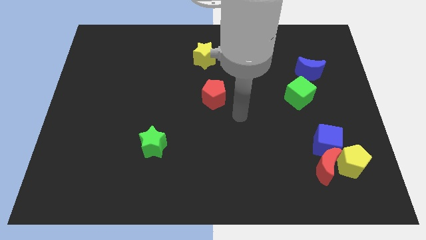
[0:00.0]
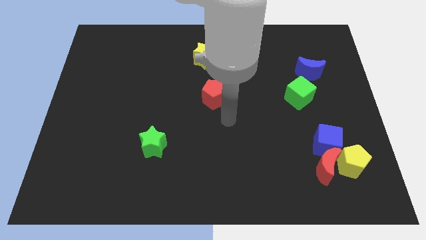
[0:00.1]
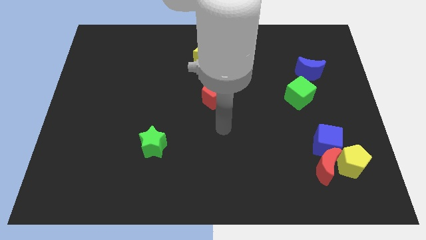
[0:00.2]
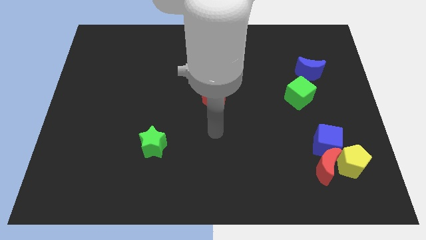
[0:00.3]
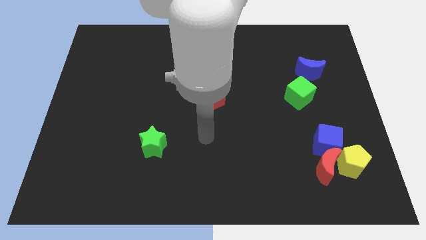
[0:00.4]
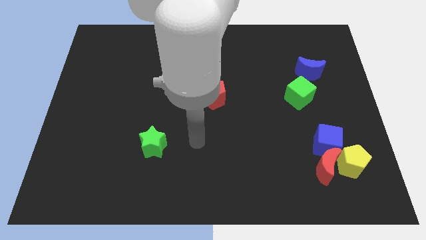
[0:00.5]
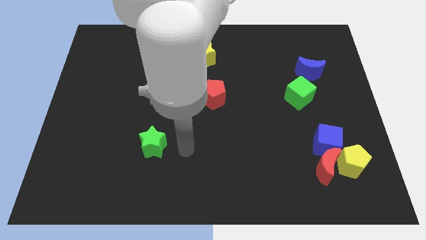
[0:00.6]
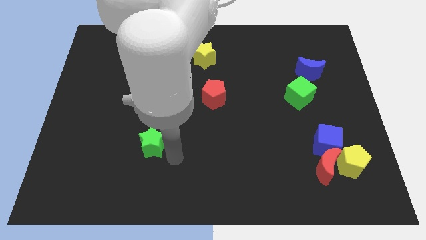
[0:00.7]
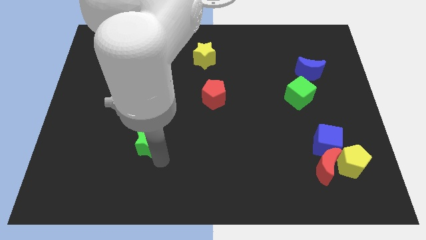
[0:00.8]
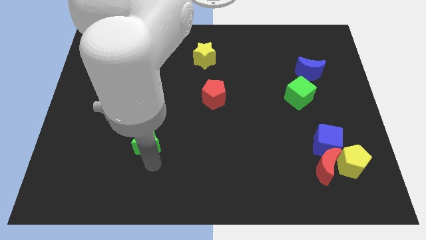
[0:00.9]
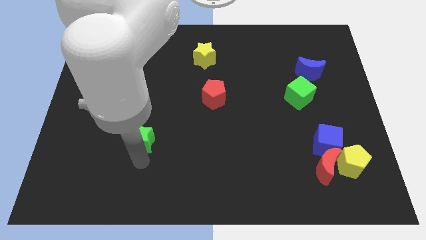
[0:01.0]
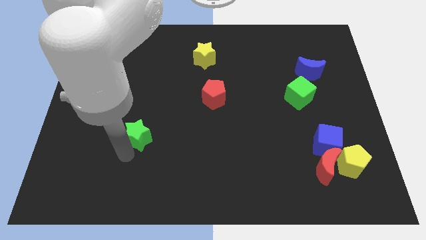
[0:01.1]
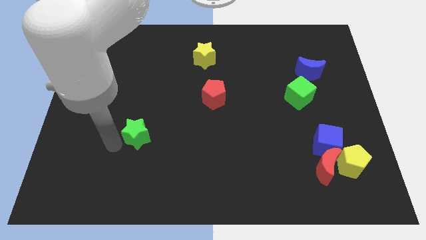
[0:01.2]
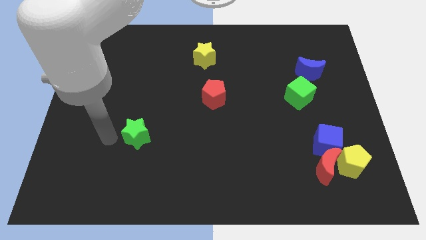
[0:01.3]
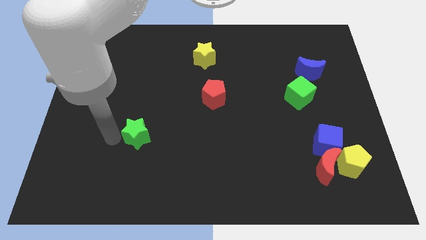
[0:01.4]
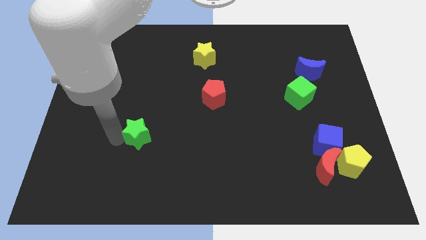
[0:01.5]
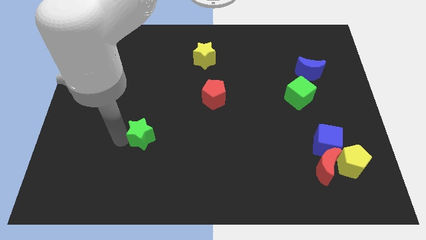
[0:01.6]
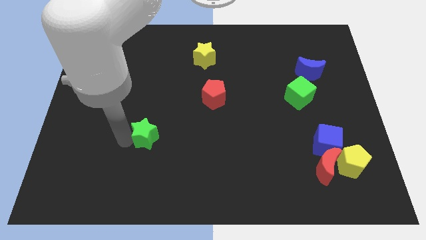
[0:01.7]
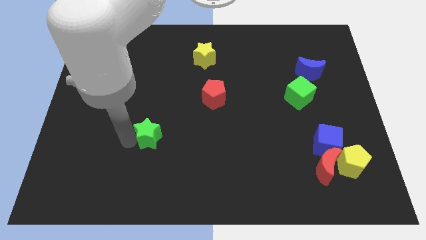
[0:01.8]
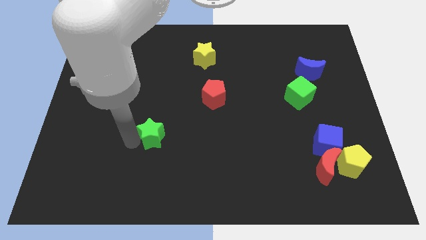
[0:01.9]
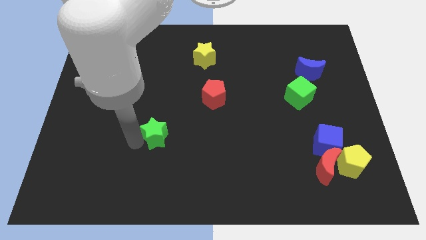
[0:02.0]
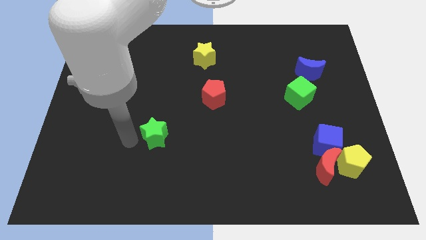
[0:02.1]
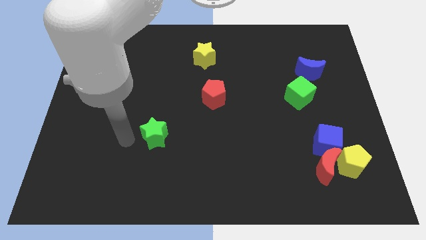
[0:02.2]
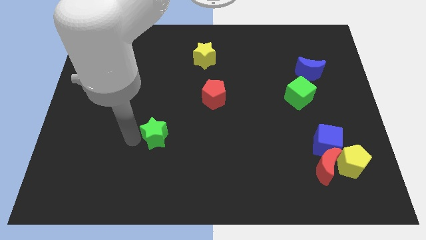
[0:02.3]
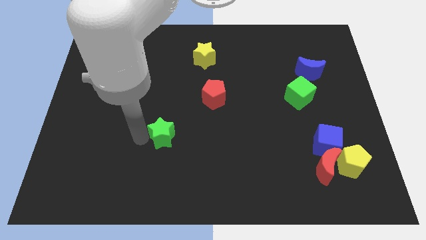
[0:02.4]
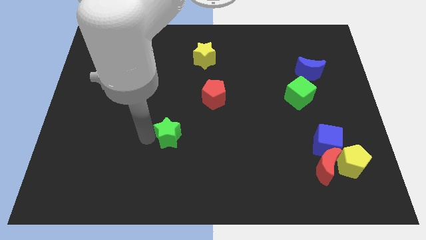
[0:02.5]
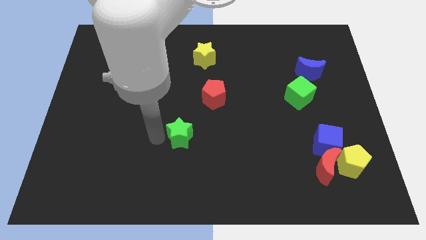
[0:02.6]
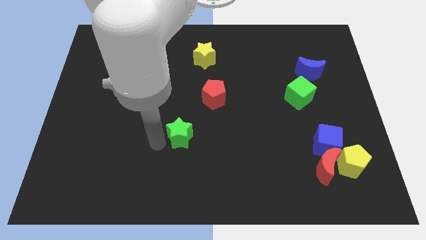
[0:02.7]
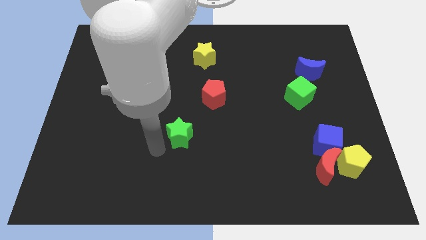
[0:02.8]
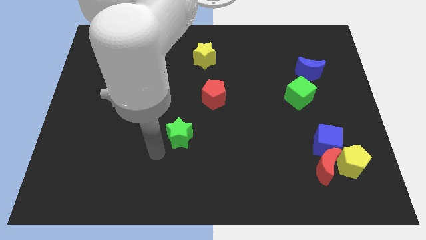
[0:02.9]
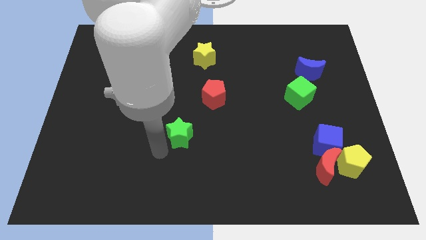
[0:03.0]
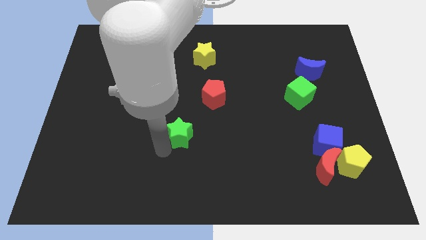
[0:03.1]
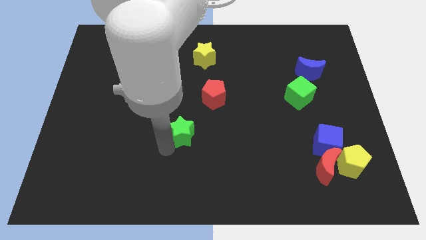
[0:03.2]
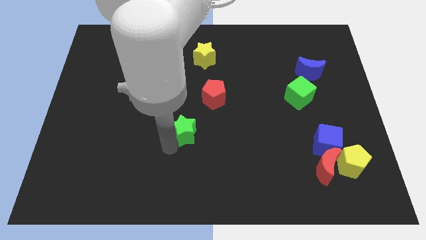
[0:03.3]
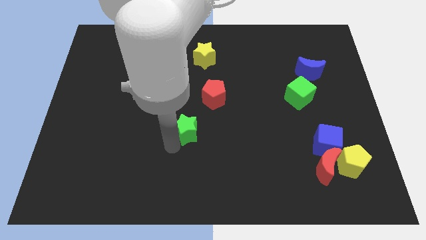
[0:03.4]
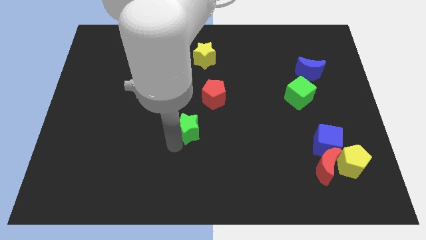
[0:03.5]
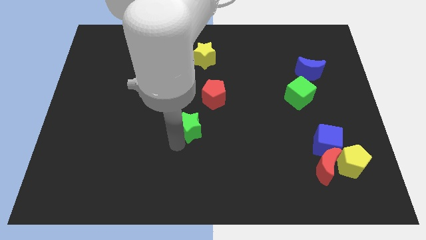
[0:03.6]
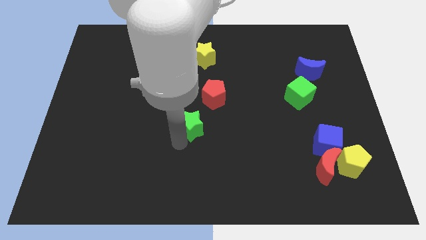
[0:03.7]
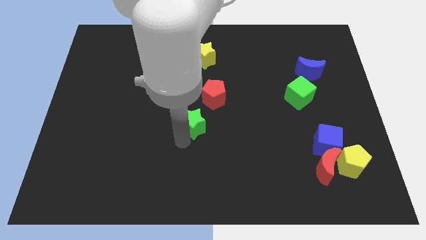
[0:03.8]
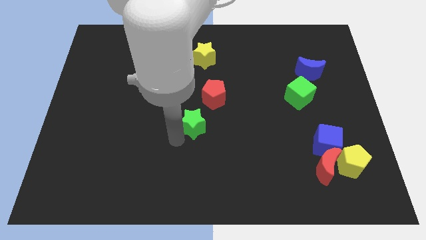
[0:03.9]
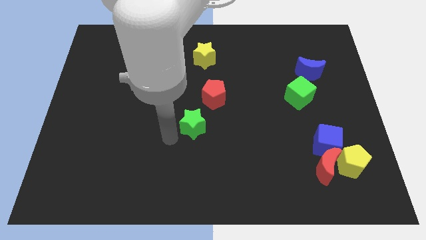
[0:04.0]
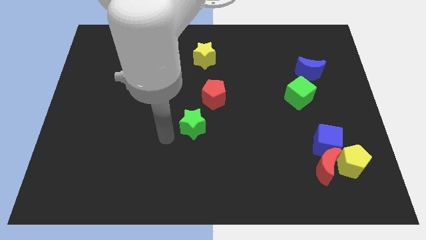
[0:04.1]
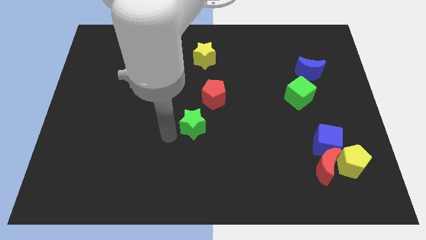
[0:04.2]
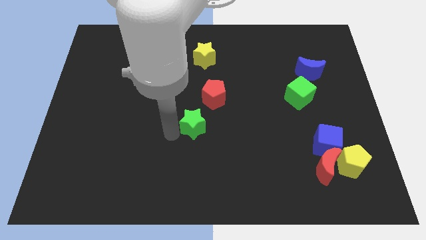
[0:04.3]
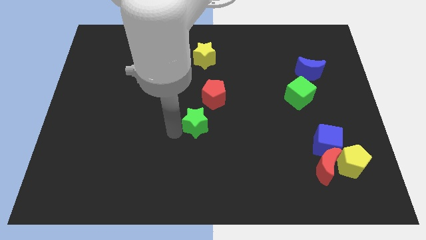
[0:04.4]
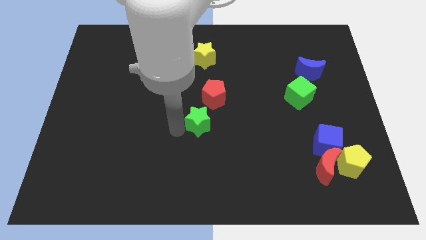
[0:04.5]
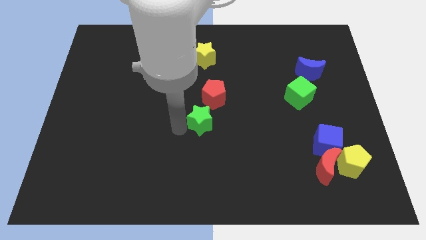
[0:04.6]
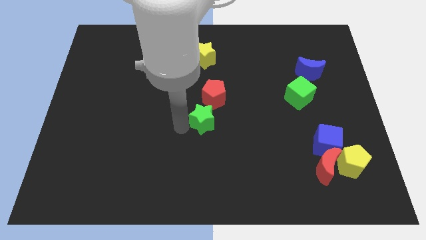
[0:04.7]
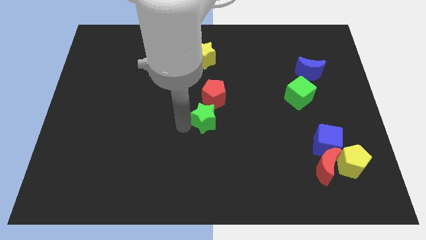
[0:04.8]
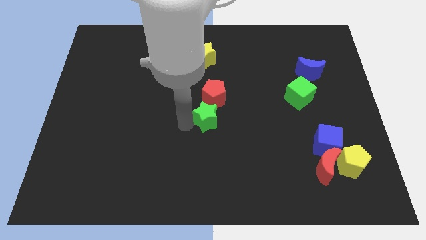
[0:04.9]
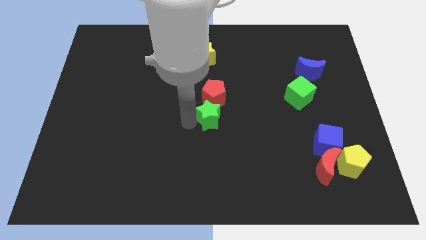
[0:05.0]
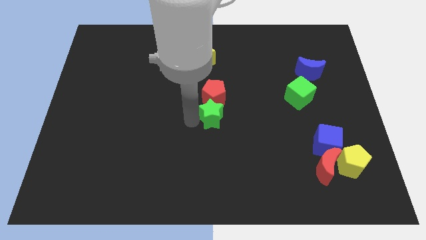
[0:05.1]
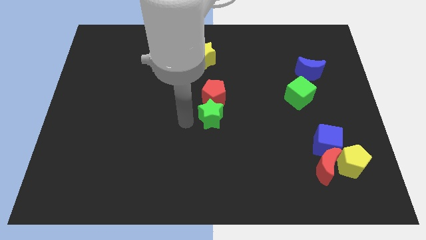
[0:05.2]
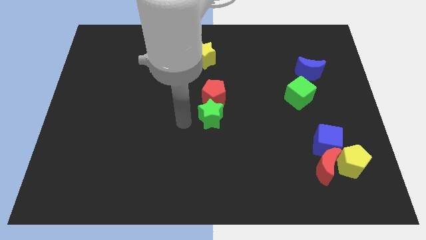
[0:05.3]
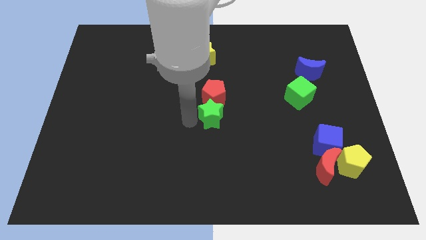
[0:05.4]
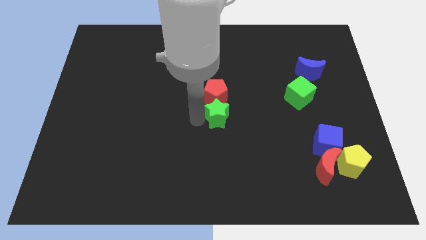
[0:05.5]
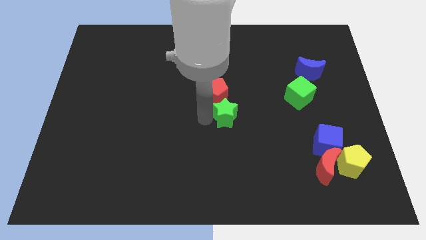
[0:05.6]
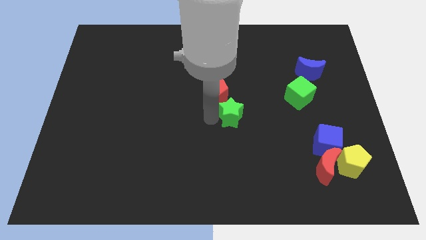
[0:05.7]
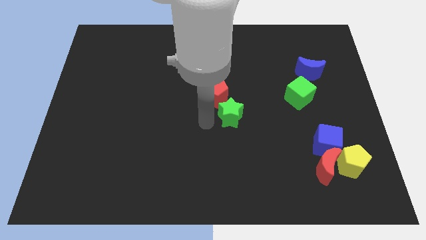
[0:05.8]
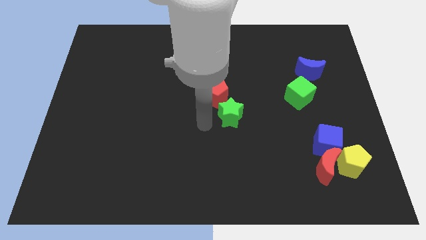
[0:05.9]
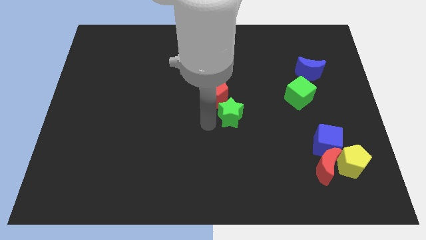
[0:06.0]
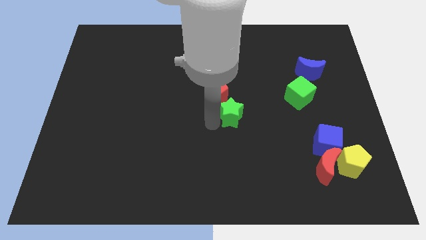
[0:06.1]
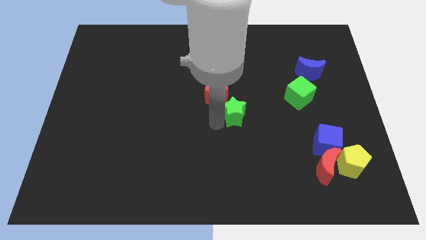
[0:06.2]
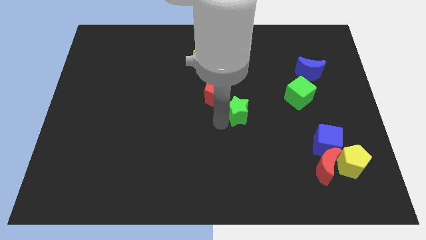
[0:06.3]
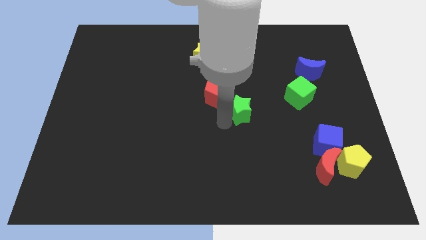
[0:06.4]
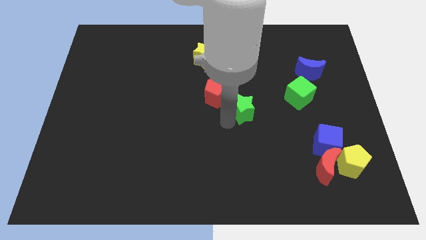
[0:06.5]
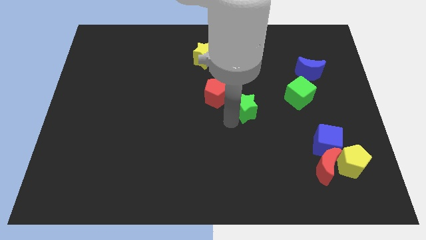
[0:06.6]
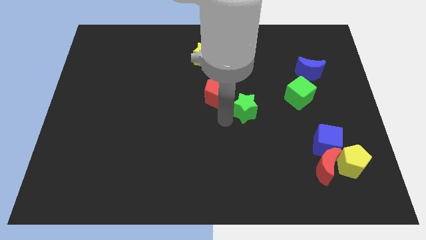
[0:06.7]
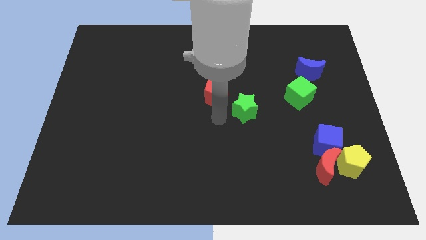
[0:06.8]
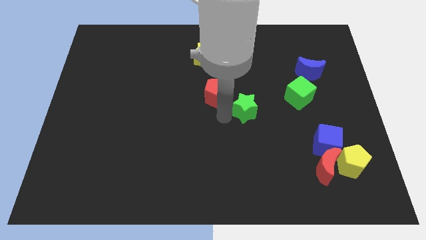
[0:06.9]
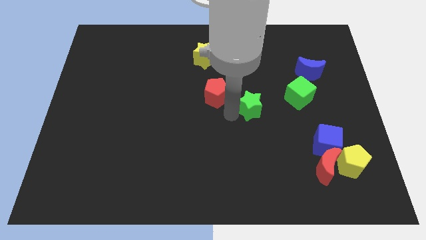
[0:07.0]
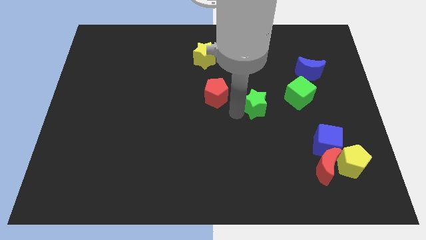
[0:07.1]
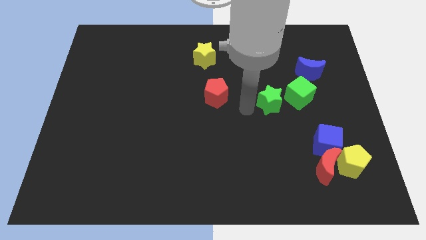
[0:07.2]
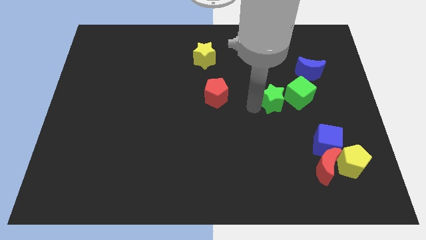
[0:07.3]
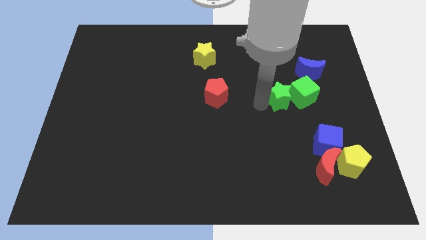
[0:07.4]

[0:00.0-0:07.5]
put the green star next to the green cube
